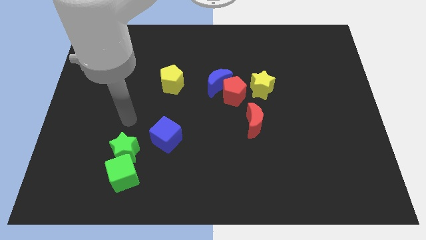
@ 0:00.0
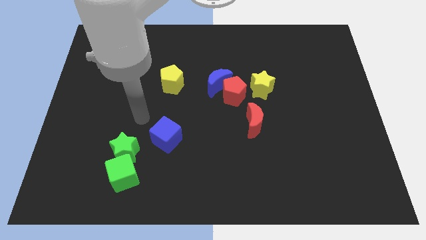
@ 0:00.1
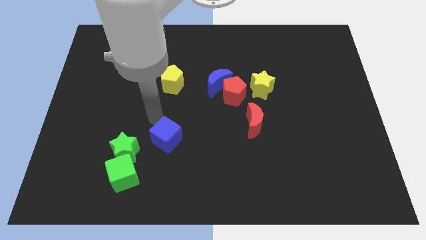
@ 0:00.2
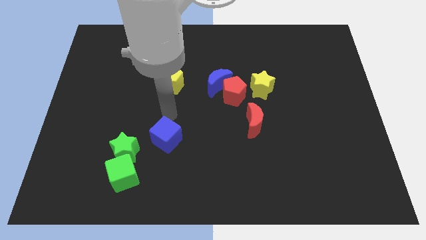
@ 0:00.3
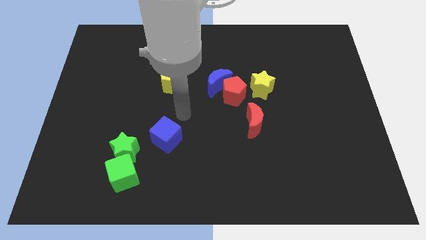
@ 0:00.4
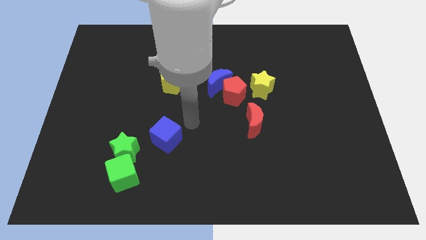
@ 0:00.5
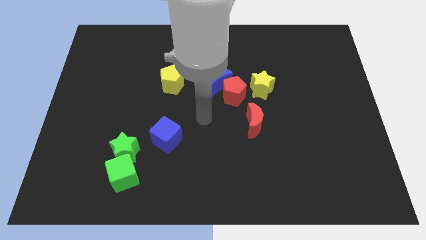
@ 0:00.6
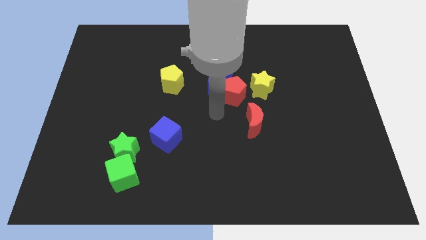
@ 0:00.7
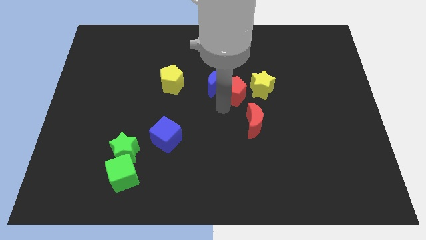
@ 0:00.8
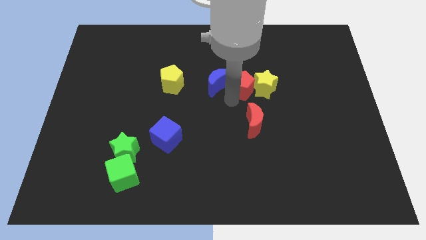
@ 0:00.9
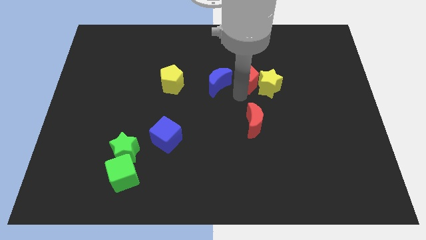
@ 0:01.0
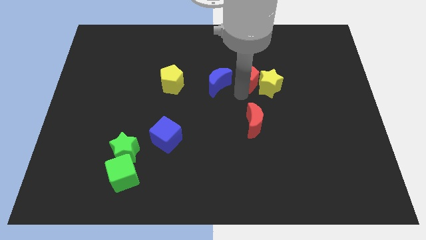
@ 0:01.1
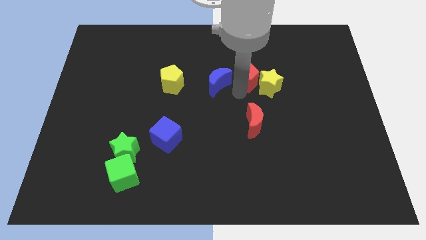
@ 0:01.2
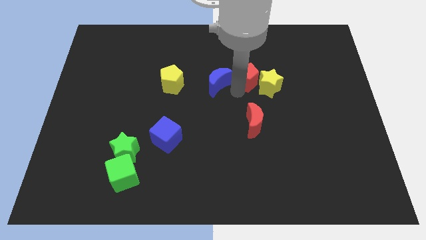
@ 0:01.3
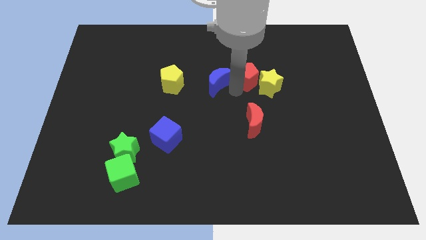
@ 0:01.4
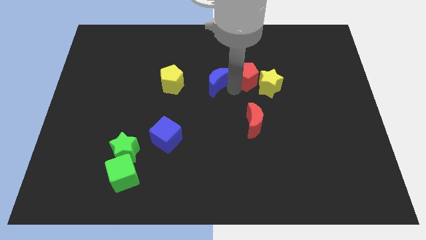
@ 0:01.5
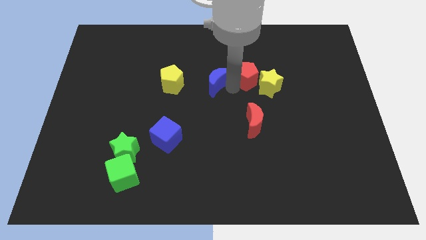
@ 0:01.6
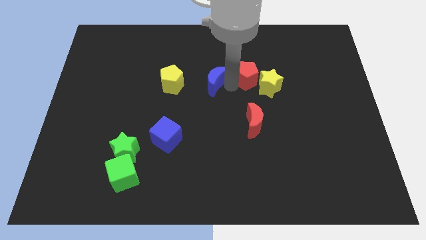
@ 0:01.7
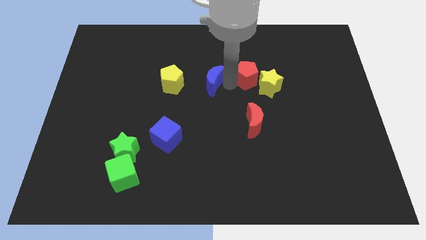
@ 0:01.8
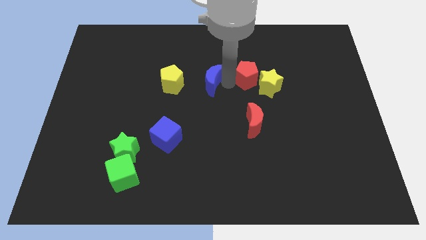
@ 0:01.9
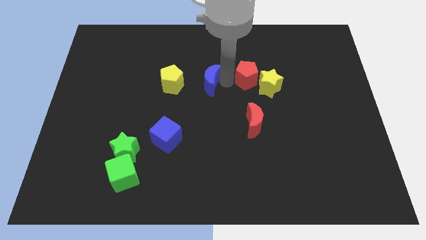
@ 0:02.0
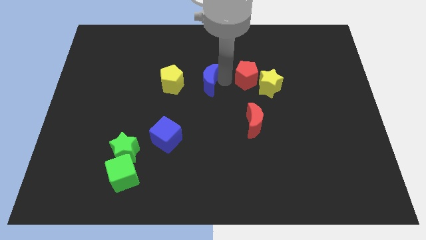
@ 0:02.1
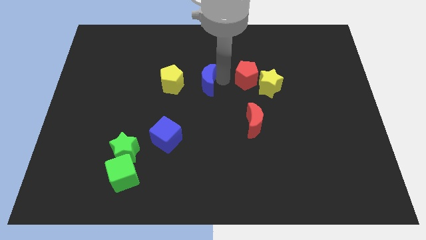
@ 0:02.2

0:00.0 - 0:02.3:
pull the blue moon apart from the red pentagon

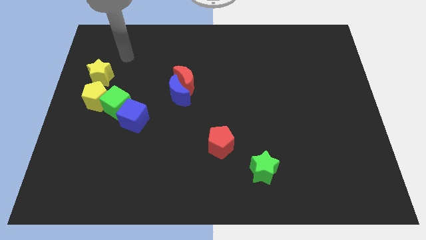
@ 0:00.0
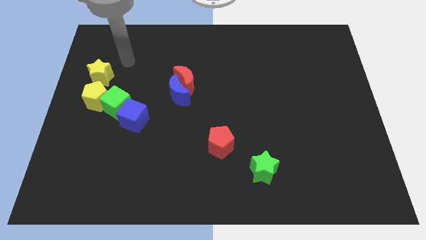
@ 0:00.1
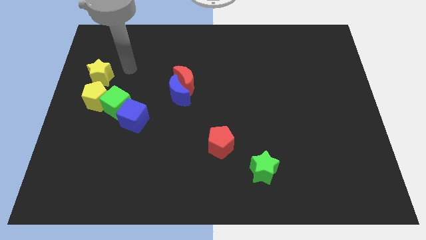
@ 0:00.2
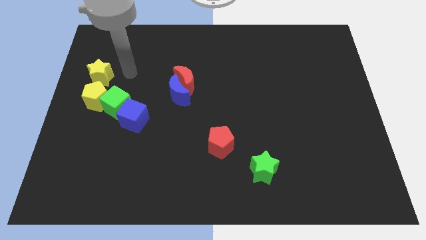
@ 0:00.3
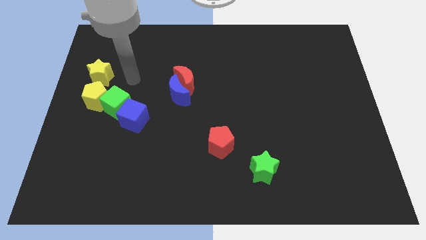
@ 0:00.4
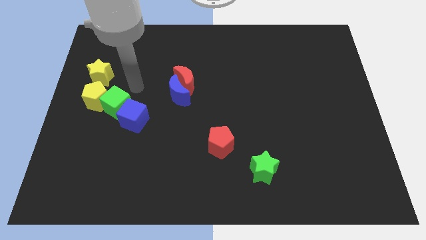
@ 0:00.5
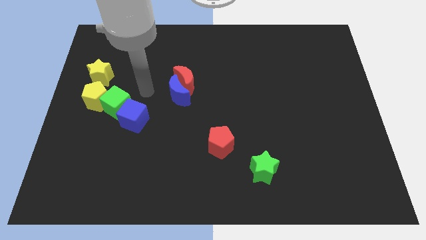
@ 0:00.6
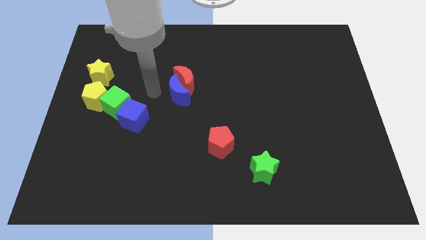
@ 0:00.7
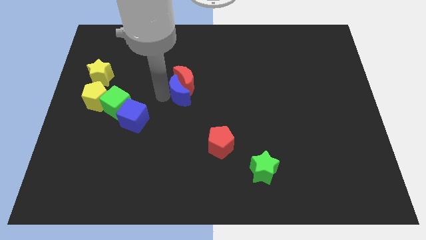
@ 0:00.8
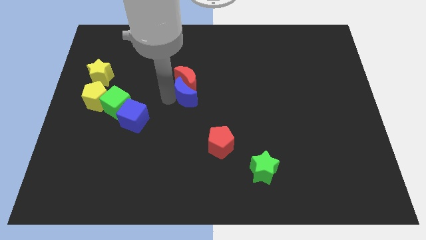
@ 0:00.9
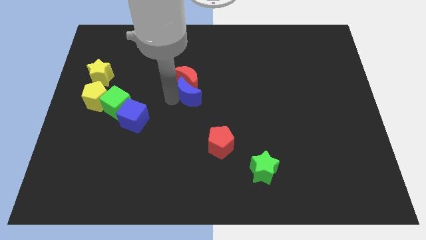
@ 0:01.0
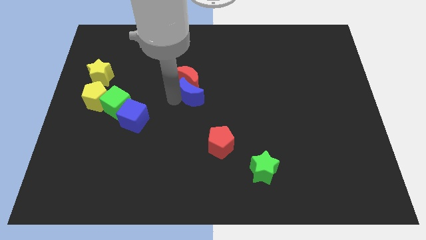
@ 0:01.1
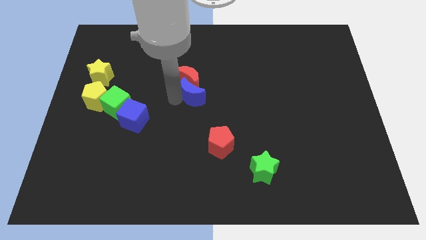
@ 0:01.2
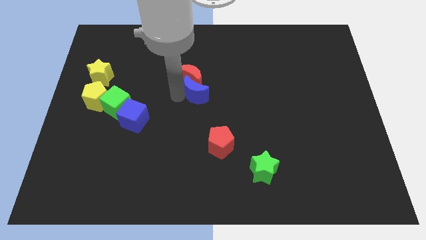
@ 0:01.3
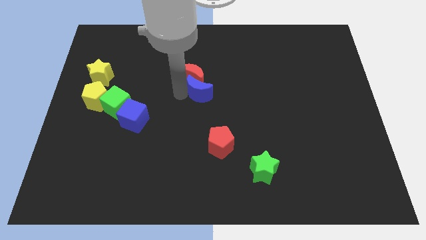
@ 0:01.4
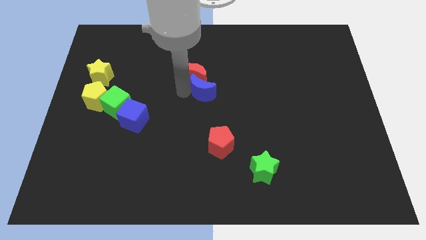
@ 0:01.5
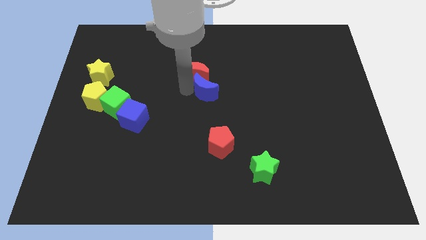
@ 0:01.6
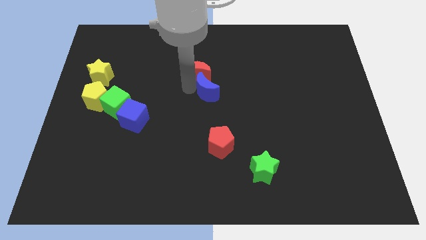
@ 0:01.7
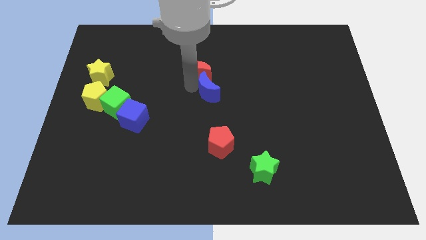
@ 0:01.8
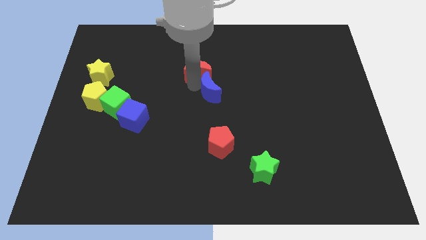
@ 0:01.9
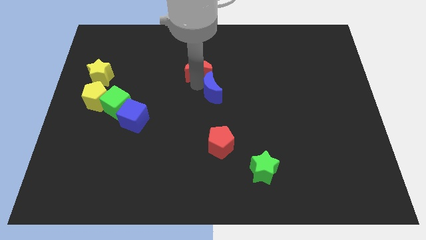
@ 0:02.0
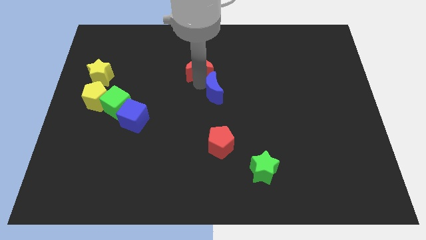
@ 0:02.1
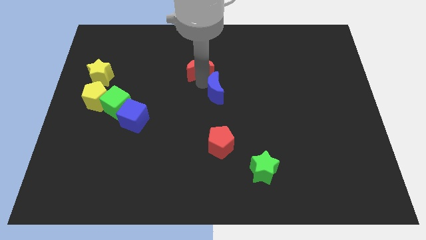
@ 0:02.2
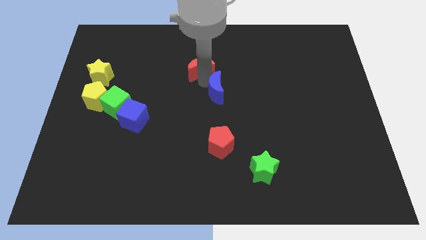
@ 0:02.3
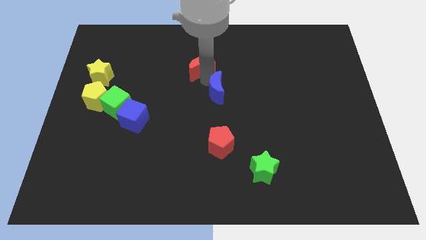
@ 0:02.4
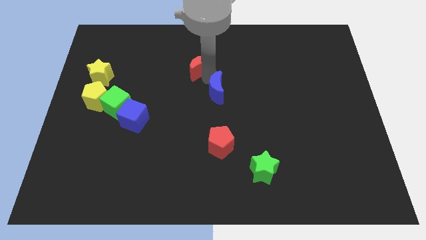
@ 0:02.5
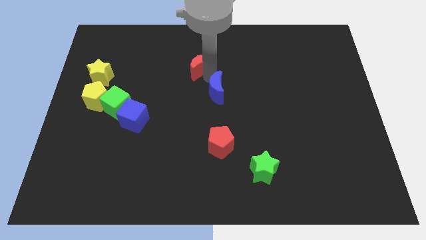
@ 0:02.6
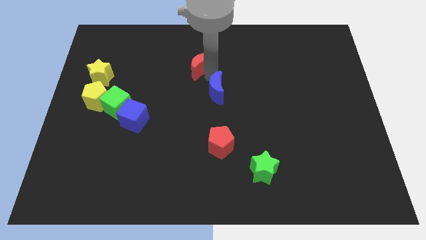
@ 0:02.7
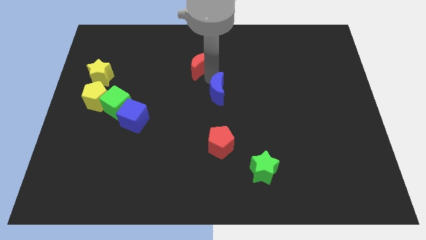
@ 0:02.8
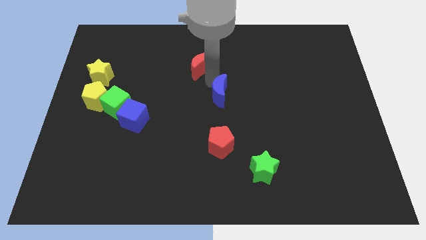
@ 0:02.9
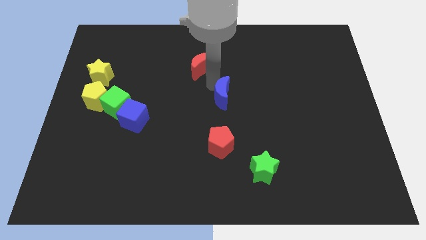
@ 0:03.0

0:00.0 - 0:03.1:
separate the red moon from the blue moon

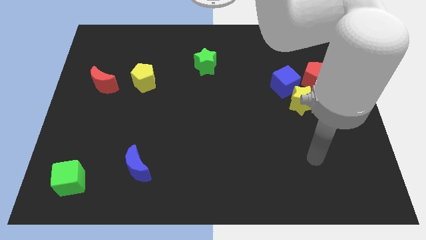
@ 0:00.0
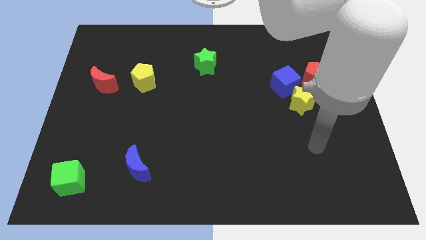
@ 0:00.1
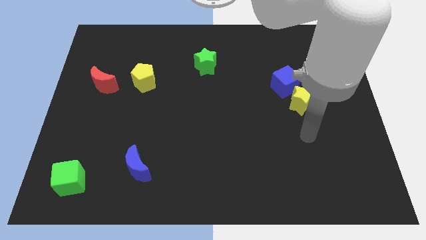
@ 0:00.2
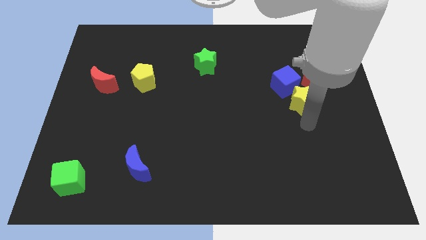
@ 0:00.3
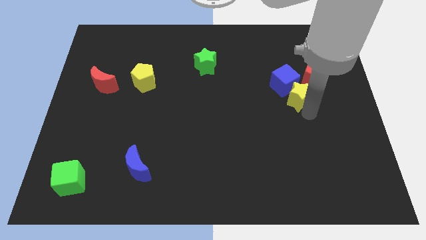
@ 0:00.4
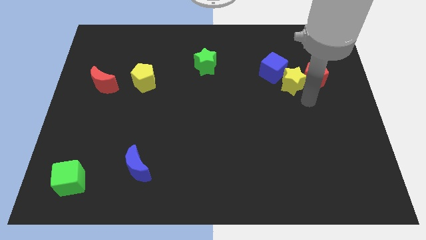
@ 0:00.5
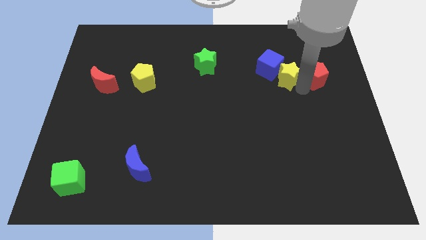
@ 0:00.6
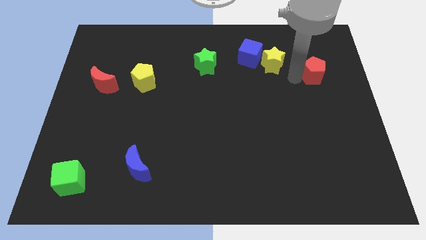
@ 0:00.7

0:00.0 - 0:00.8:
separate the blue cube from the yellow star and red pentagon

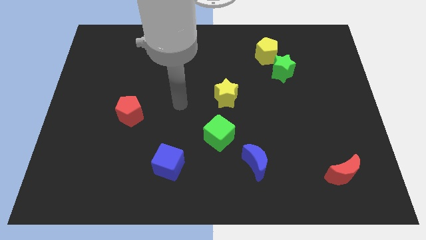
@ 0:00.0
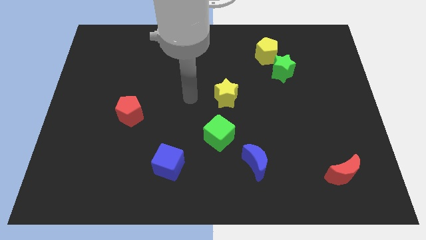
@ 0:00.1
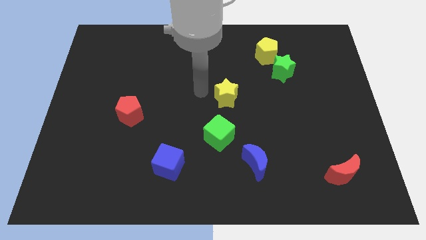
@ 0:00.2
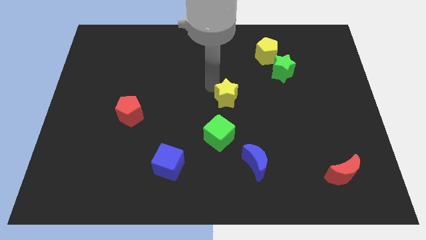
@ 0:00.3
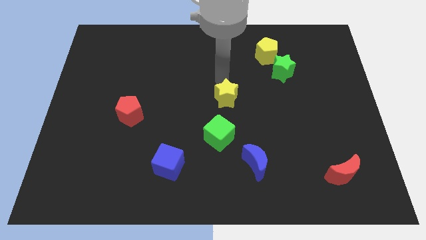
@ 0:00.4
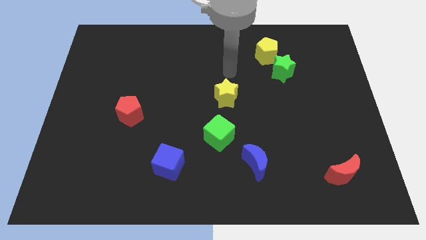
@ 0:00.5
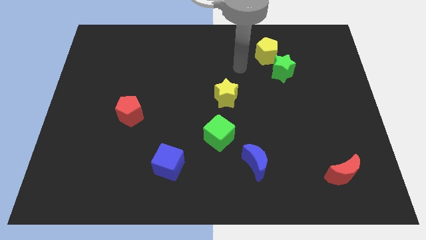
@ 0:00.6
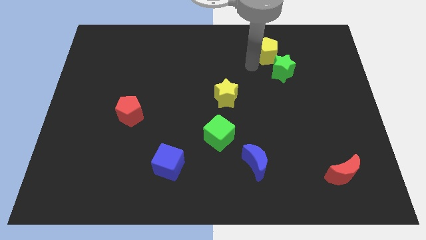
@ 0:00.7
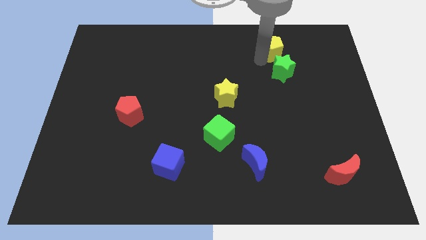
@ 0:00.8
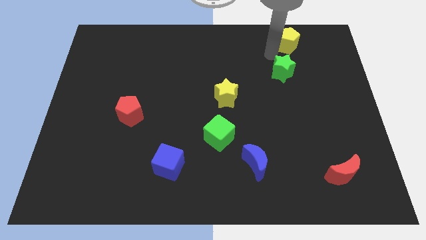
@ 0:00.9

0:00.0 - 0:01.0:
separate the green star from the yellow pentagon

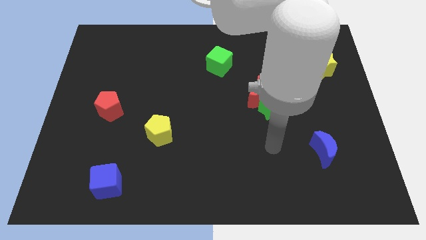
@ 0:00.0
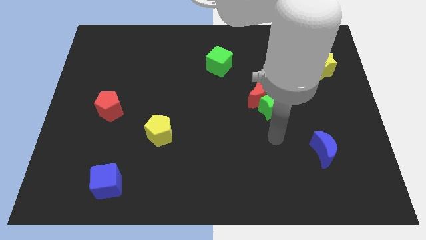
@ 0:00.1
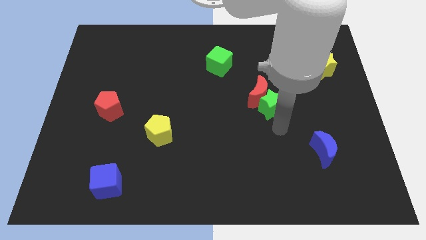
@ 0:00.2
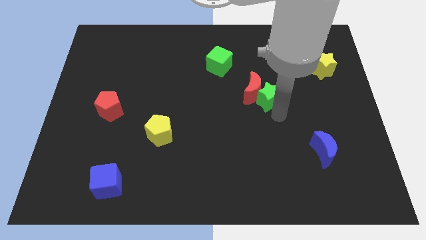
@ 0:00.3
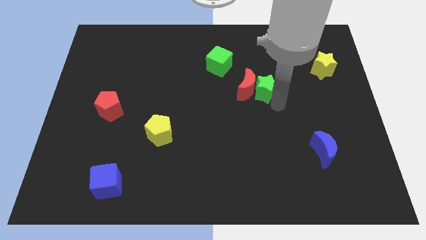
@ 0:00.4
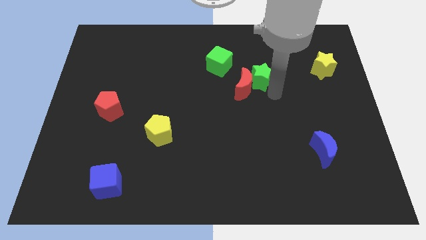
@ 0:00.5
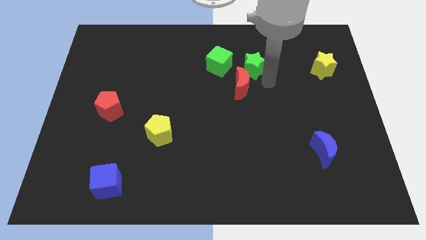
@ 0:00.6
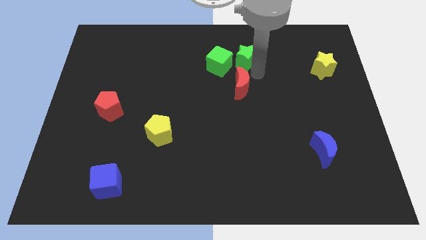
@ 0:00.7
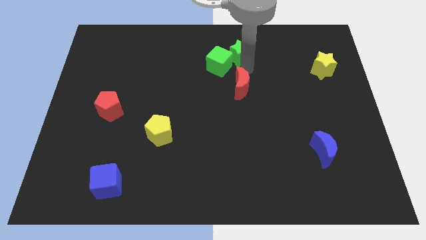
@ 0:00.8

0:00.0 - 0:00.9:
separate the red moon from the green star

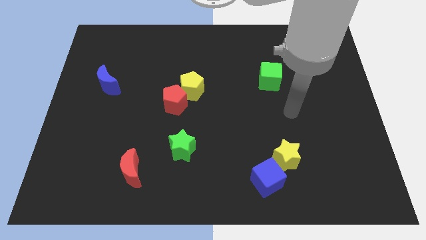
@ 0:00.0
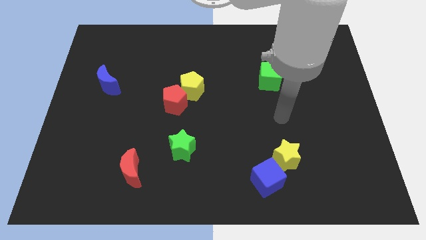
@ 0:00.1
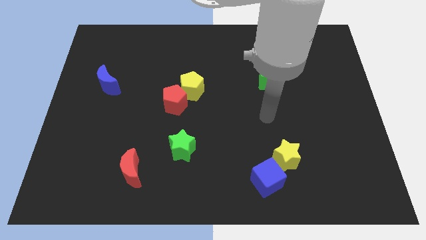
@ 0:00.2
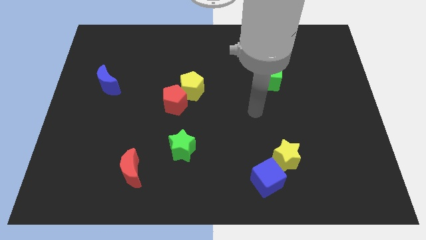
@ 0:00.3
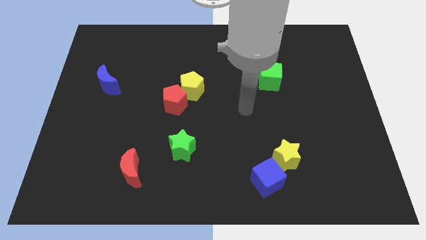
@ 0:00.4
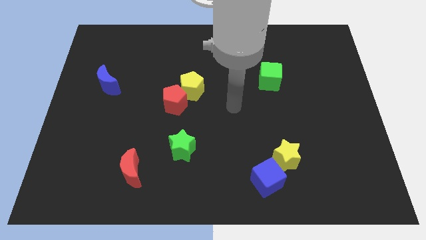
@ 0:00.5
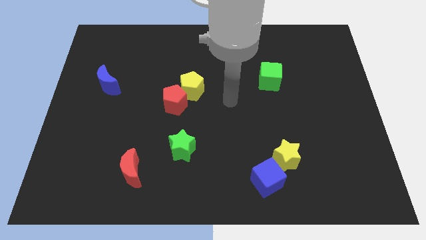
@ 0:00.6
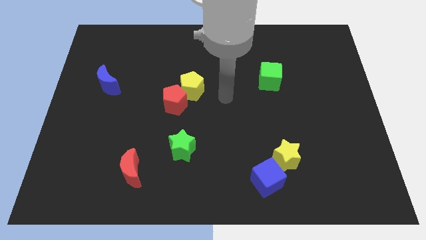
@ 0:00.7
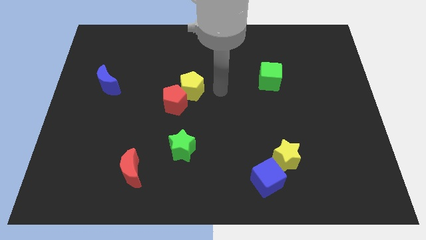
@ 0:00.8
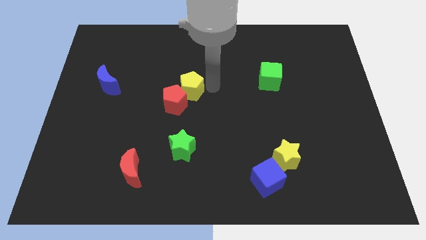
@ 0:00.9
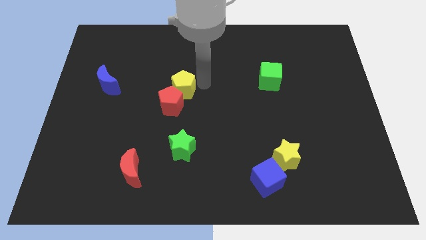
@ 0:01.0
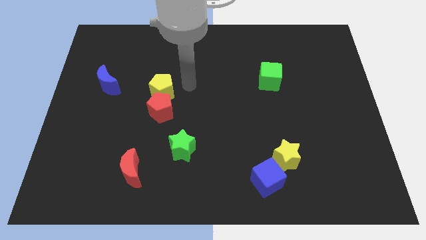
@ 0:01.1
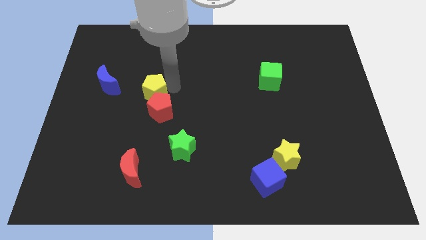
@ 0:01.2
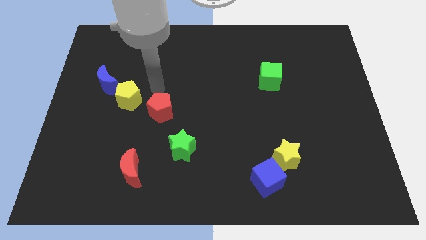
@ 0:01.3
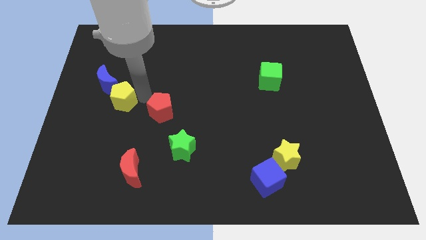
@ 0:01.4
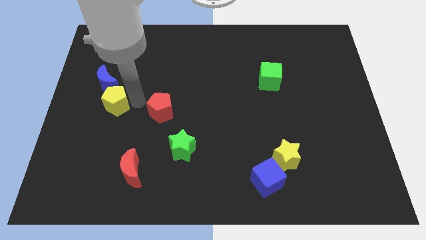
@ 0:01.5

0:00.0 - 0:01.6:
move the red pentagon away from the yellow pentagon
